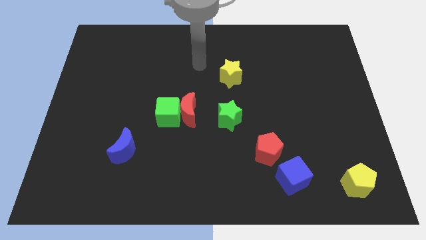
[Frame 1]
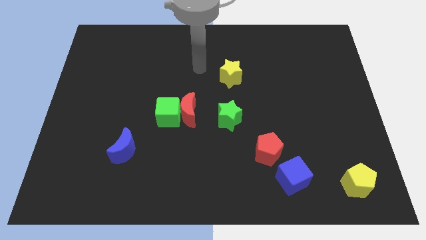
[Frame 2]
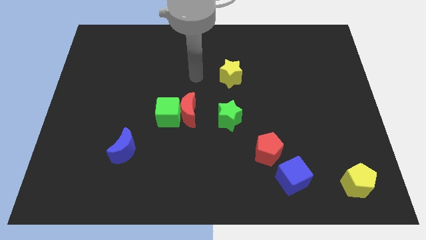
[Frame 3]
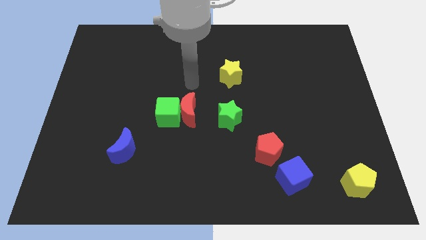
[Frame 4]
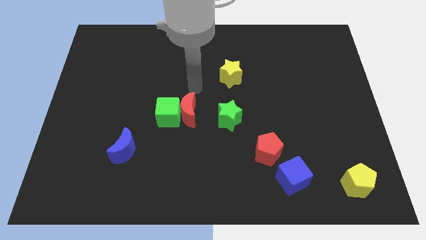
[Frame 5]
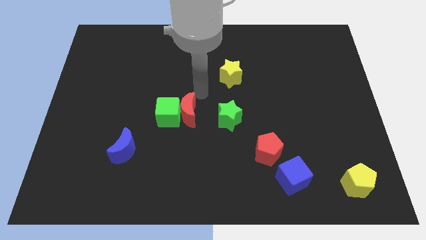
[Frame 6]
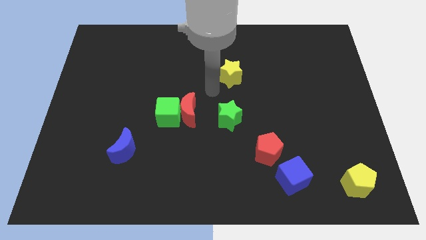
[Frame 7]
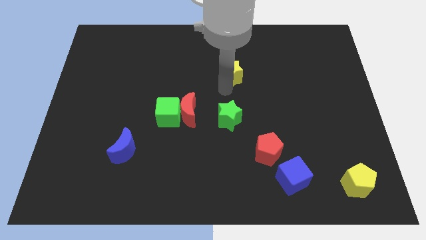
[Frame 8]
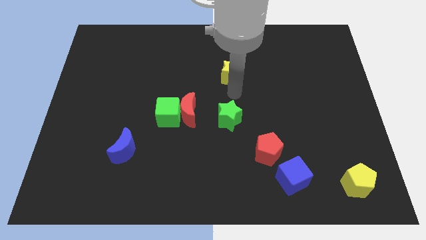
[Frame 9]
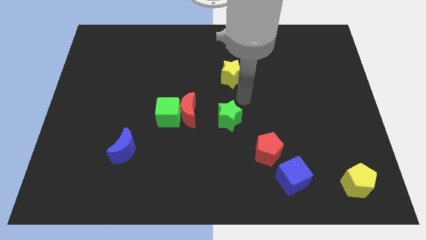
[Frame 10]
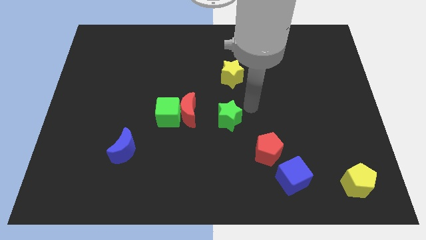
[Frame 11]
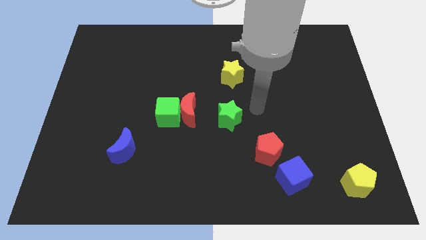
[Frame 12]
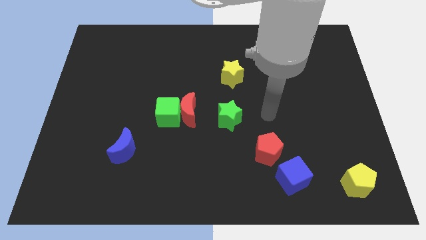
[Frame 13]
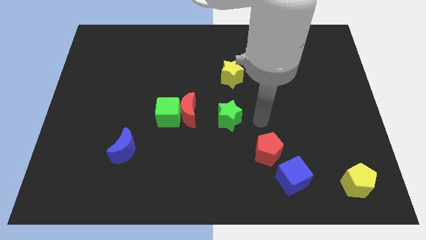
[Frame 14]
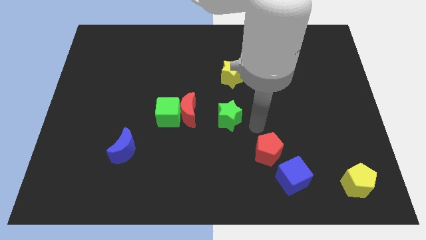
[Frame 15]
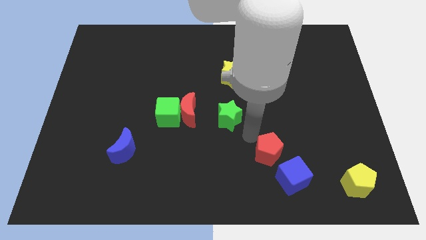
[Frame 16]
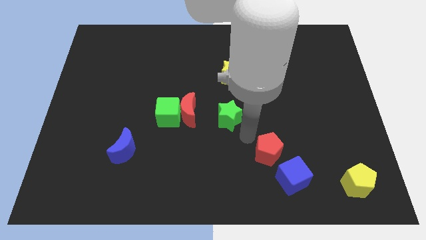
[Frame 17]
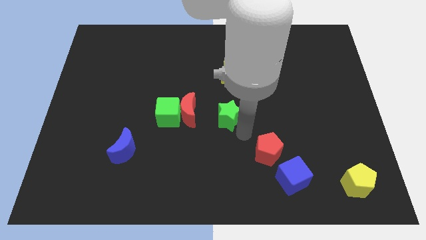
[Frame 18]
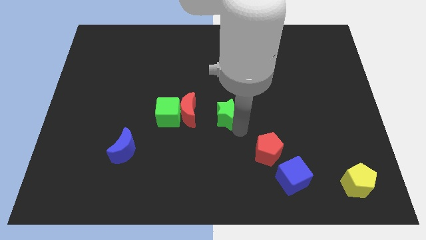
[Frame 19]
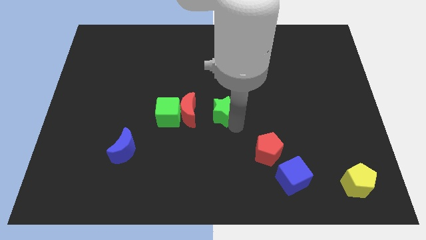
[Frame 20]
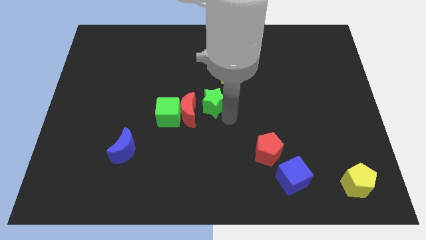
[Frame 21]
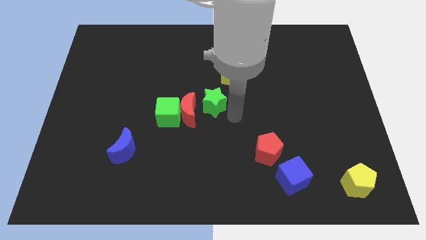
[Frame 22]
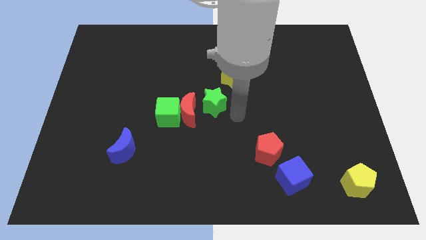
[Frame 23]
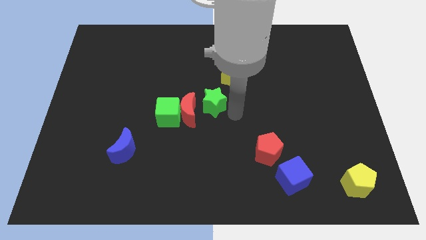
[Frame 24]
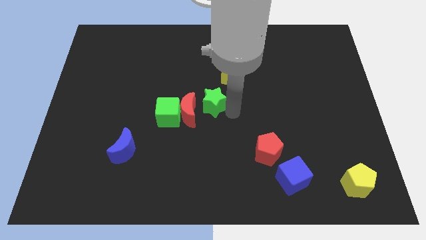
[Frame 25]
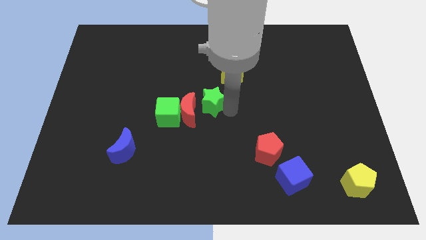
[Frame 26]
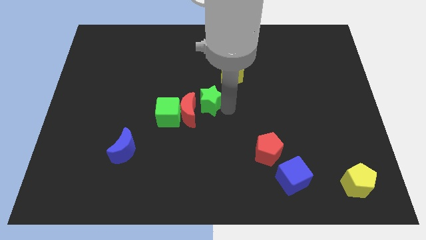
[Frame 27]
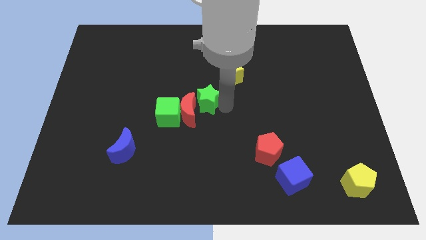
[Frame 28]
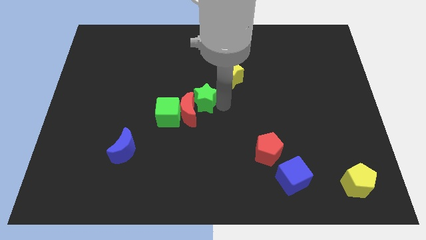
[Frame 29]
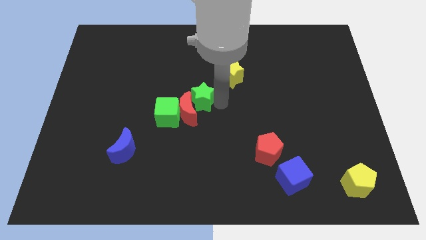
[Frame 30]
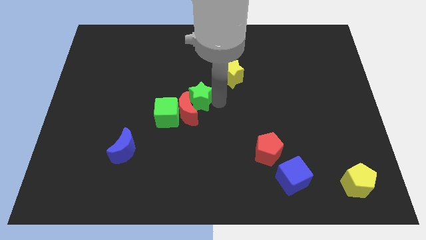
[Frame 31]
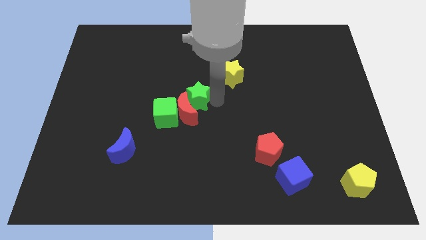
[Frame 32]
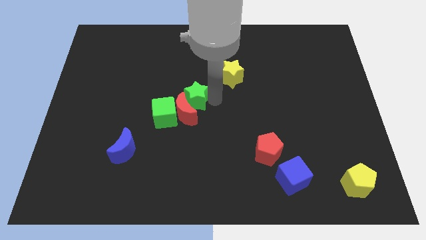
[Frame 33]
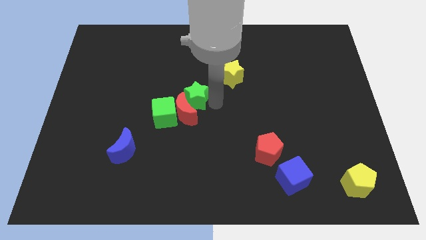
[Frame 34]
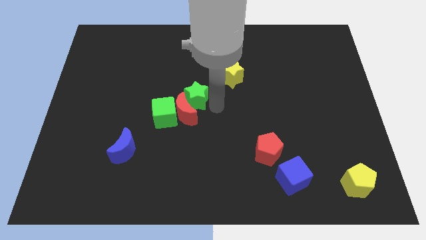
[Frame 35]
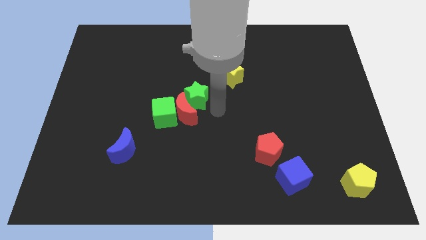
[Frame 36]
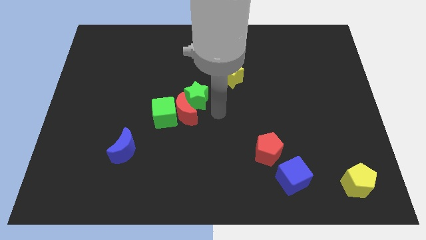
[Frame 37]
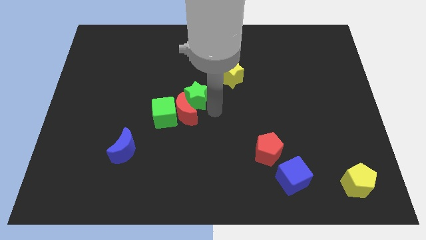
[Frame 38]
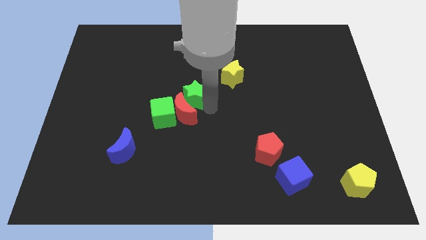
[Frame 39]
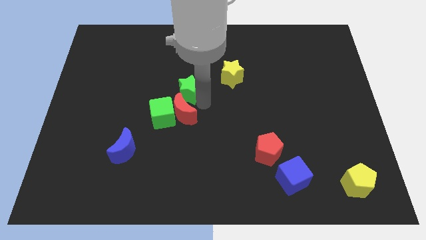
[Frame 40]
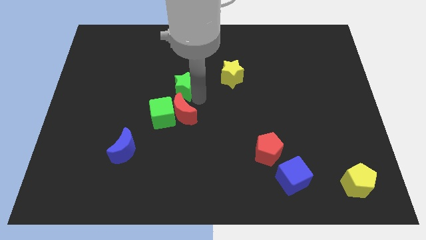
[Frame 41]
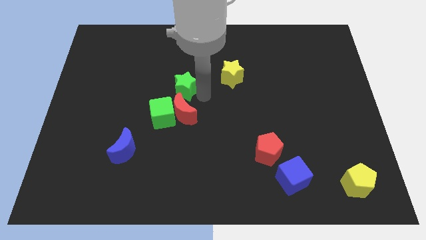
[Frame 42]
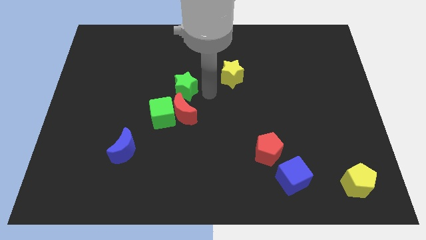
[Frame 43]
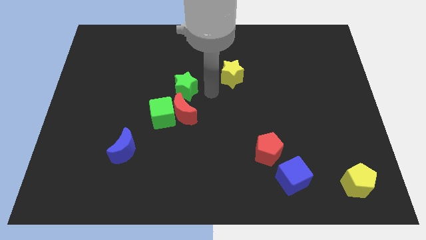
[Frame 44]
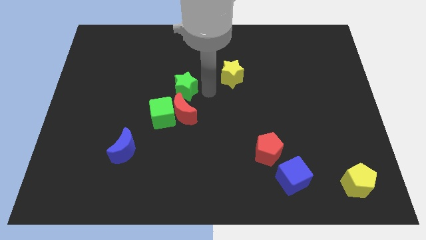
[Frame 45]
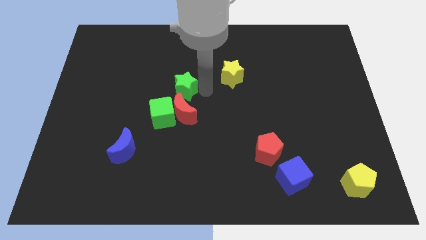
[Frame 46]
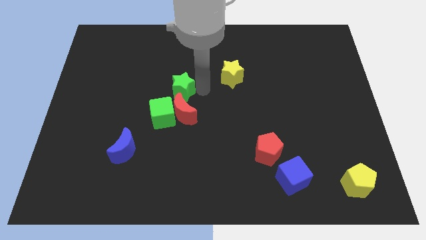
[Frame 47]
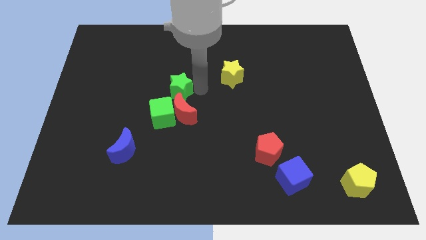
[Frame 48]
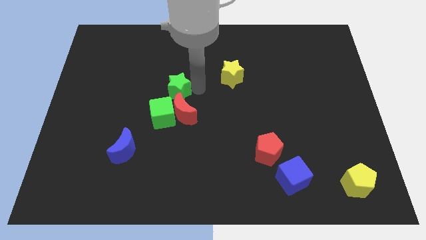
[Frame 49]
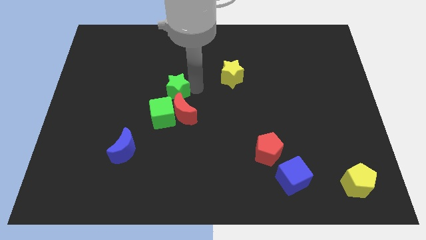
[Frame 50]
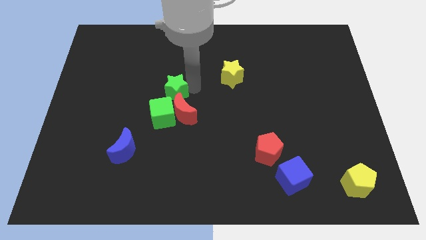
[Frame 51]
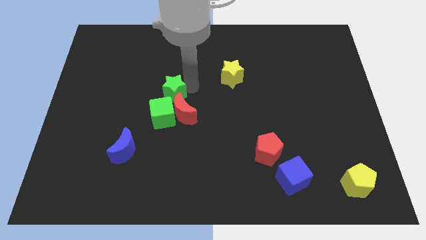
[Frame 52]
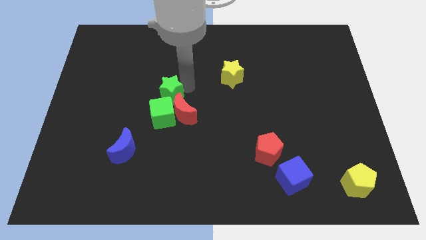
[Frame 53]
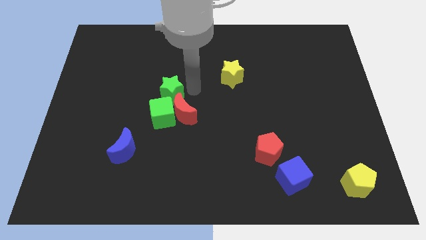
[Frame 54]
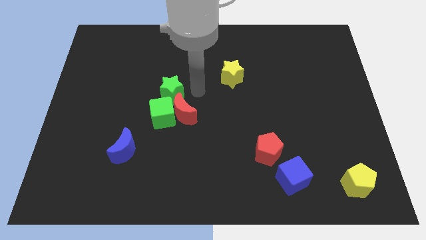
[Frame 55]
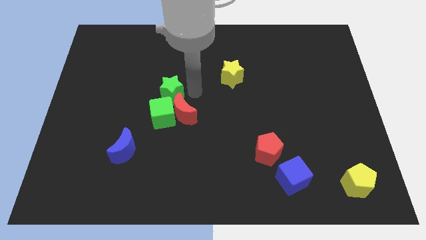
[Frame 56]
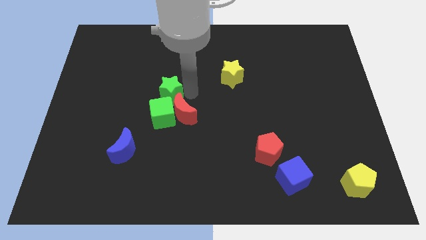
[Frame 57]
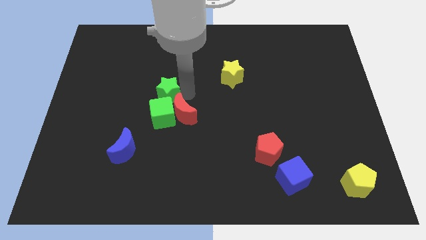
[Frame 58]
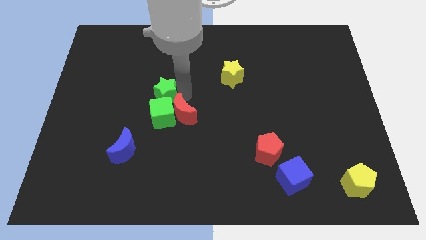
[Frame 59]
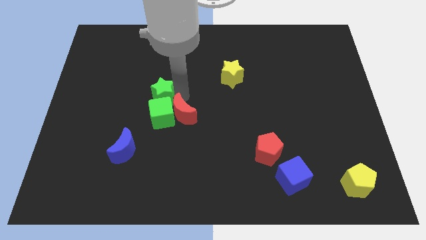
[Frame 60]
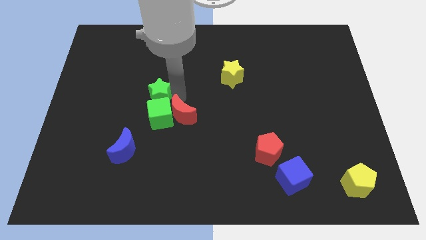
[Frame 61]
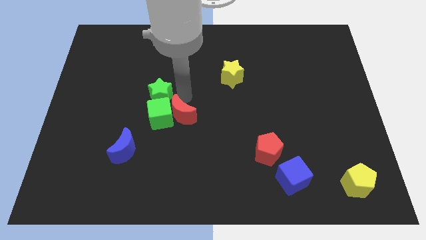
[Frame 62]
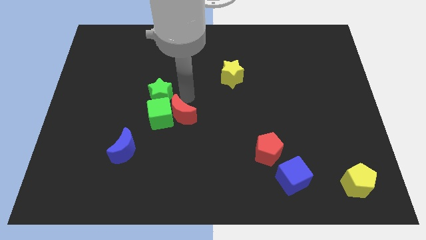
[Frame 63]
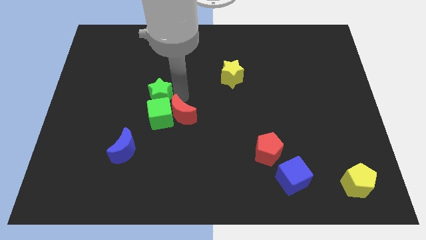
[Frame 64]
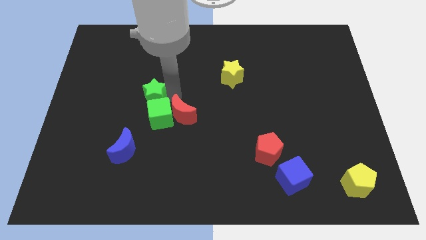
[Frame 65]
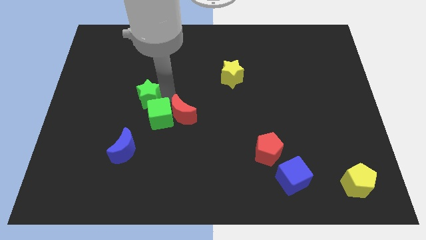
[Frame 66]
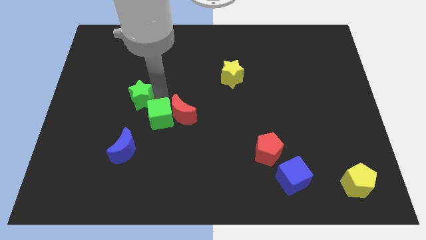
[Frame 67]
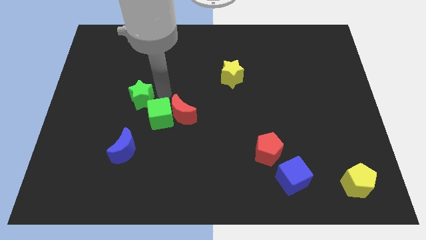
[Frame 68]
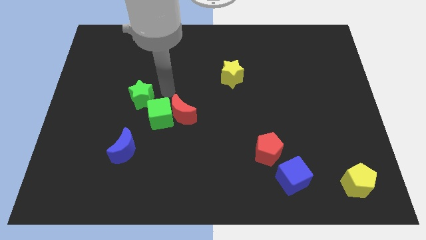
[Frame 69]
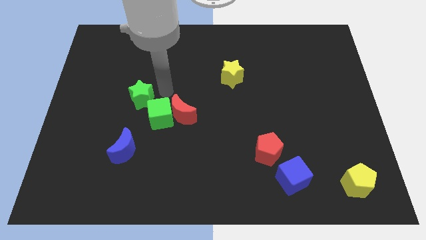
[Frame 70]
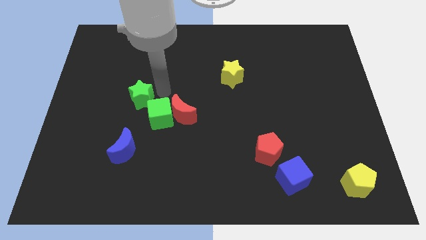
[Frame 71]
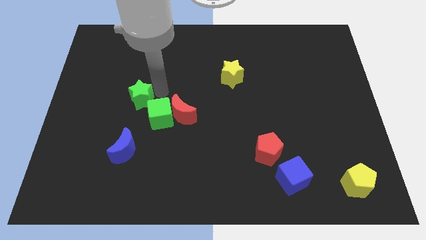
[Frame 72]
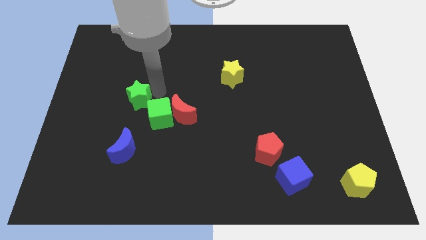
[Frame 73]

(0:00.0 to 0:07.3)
slide the green star to the left

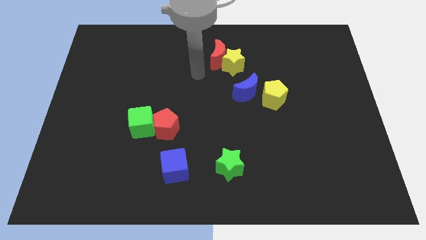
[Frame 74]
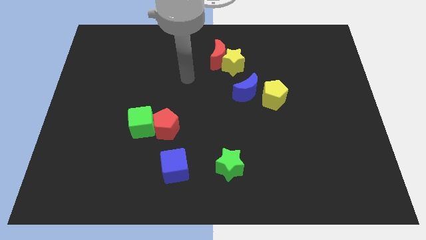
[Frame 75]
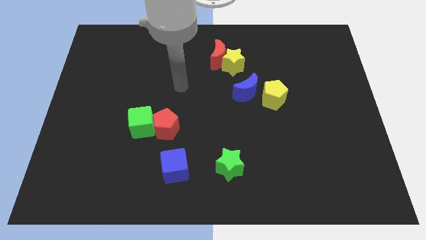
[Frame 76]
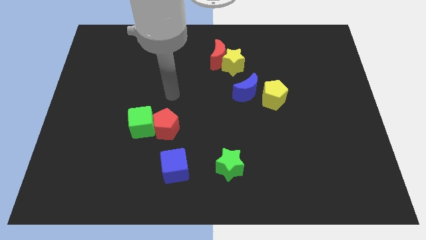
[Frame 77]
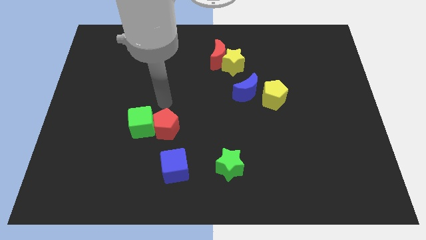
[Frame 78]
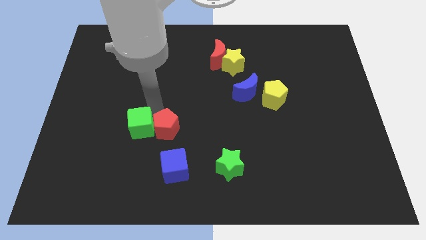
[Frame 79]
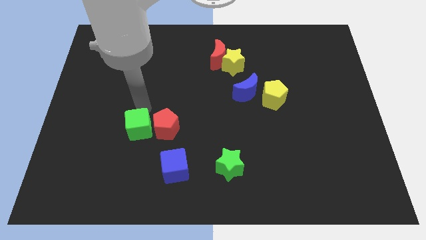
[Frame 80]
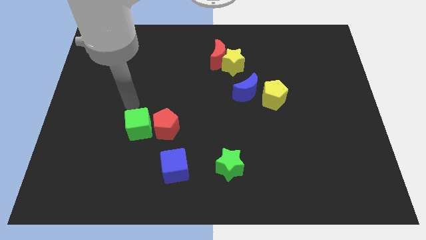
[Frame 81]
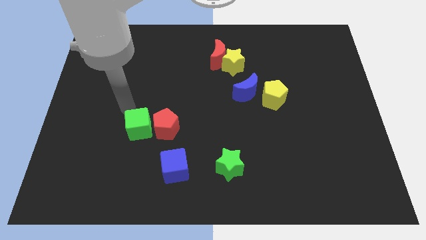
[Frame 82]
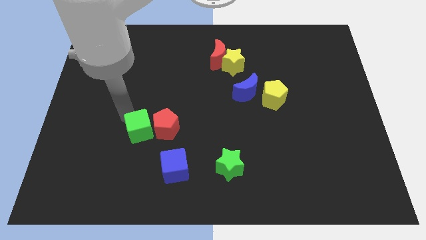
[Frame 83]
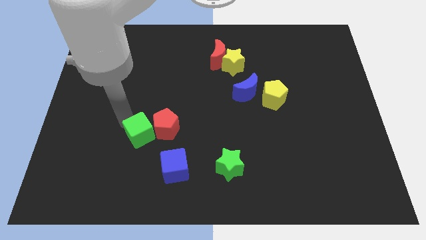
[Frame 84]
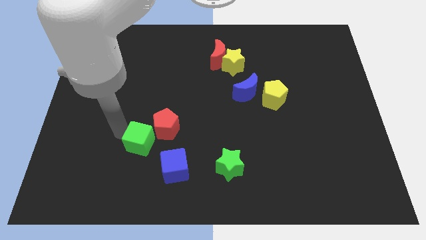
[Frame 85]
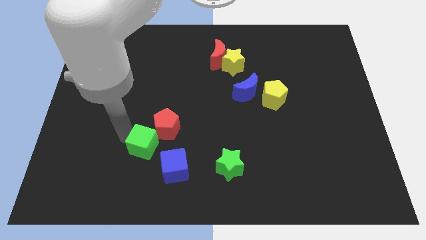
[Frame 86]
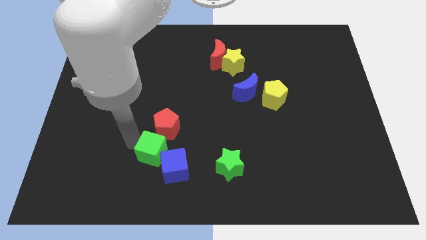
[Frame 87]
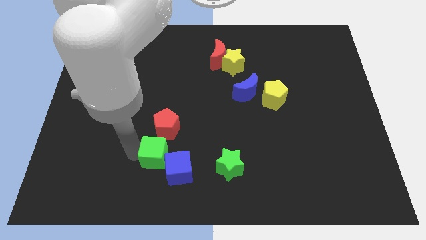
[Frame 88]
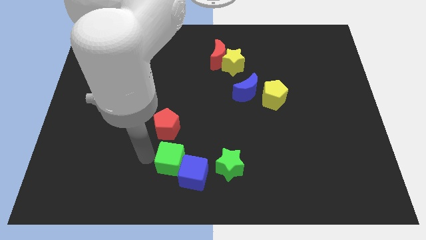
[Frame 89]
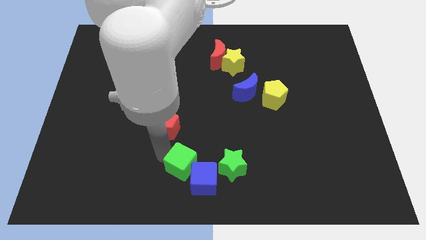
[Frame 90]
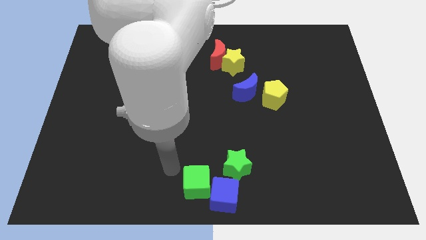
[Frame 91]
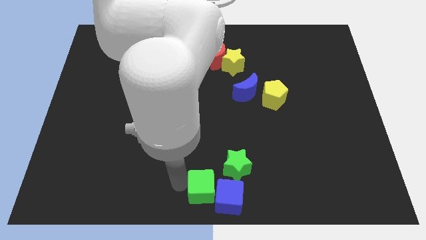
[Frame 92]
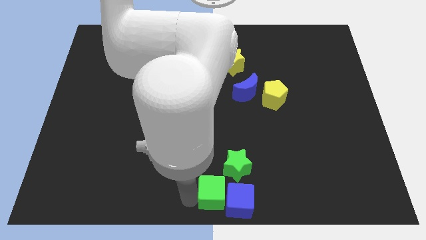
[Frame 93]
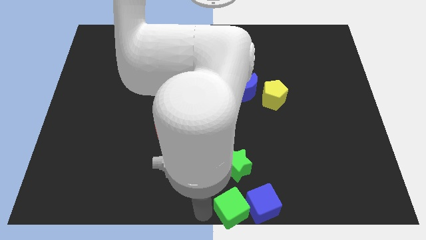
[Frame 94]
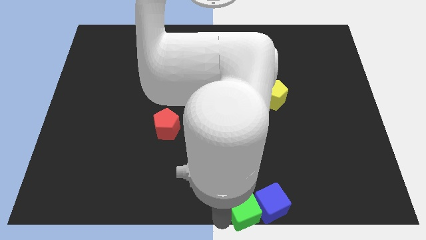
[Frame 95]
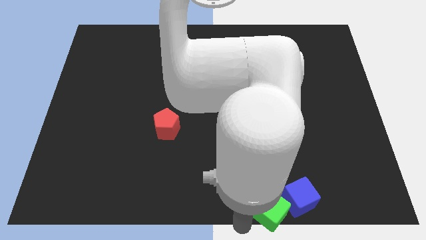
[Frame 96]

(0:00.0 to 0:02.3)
slide the blue cube right
